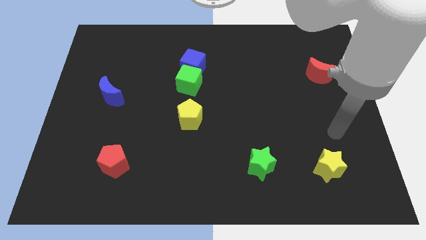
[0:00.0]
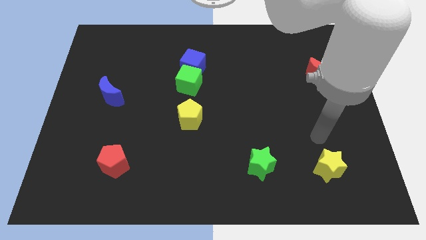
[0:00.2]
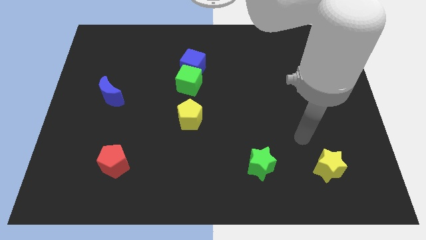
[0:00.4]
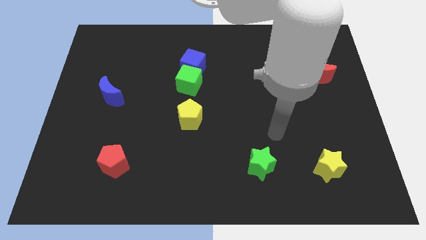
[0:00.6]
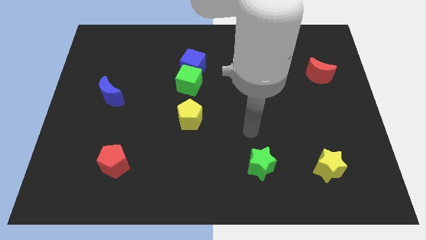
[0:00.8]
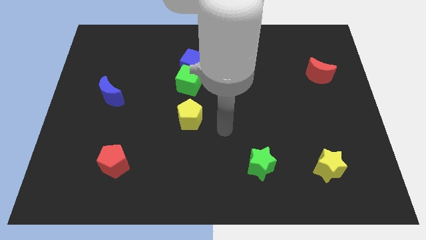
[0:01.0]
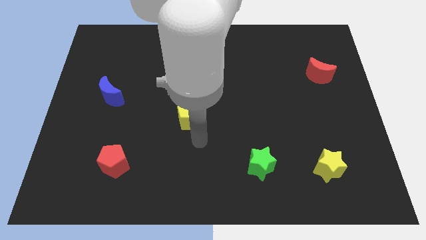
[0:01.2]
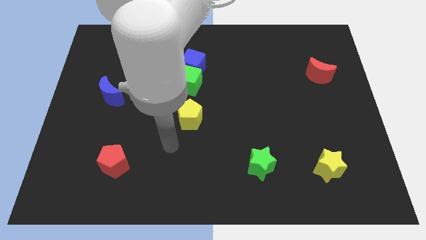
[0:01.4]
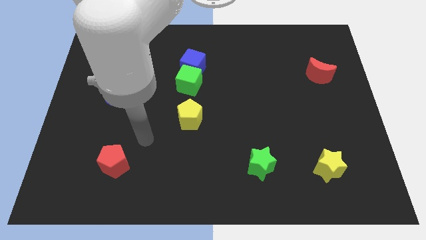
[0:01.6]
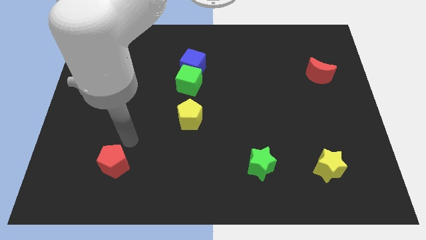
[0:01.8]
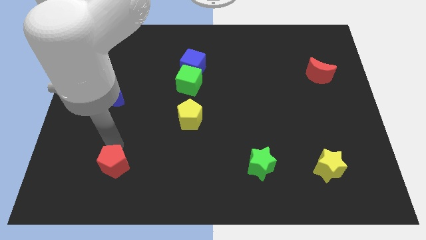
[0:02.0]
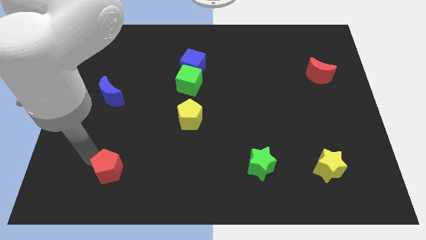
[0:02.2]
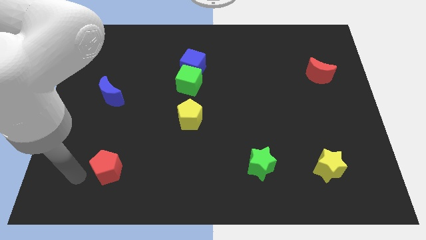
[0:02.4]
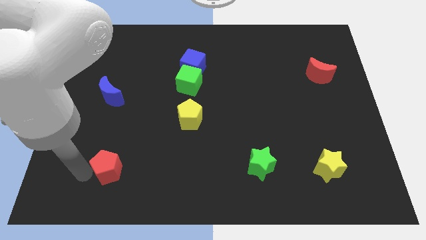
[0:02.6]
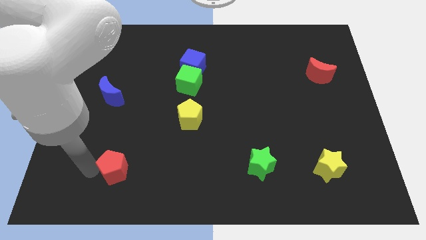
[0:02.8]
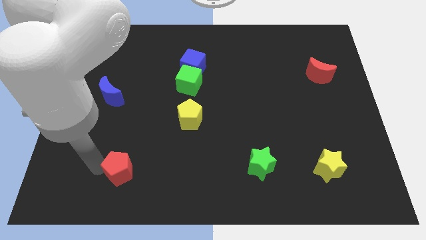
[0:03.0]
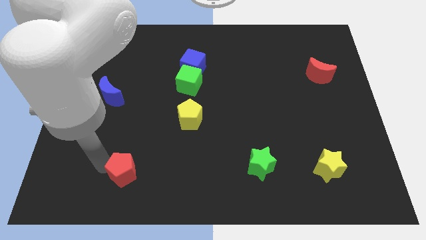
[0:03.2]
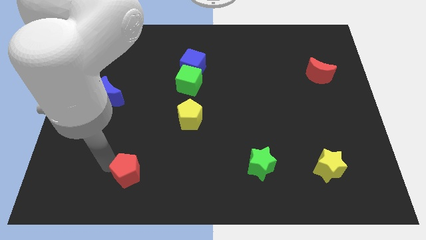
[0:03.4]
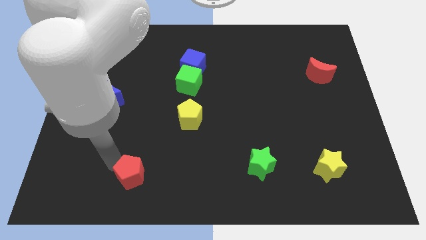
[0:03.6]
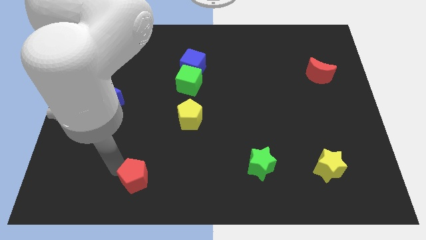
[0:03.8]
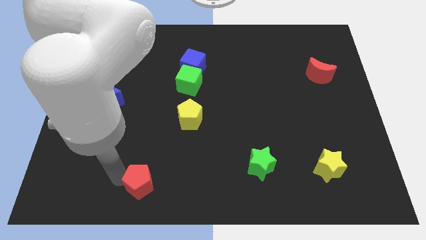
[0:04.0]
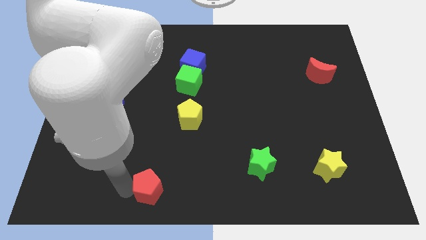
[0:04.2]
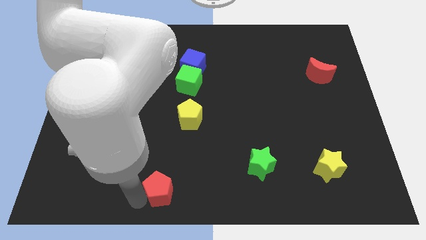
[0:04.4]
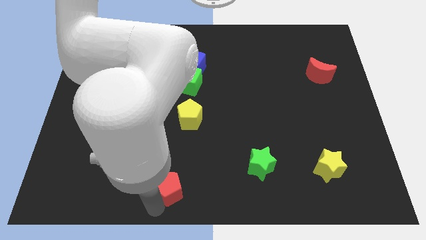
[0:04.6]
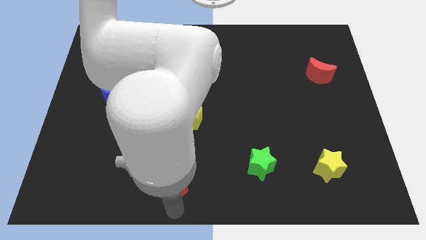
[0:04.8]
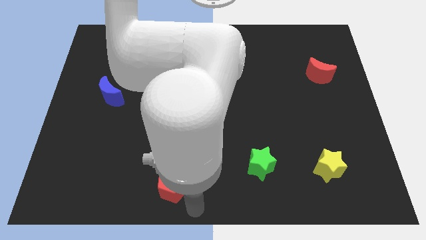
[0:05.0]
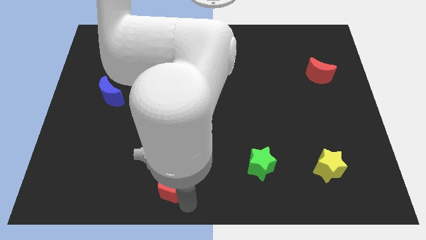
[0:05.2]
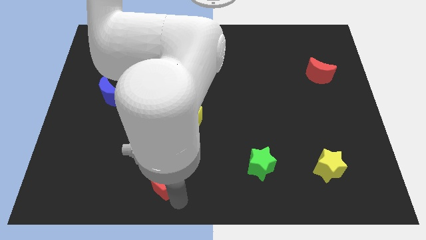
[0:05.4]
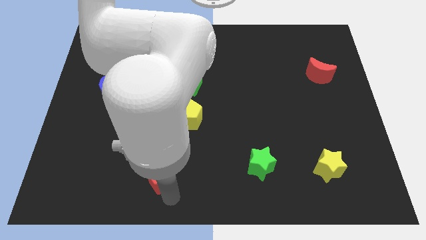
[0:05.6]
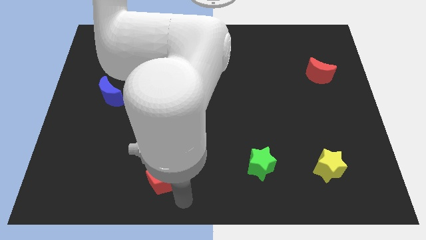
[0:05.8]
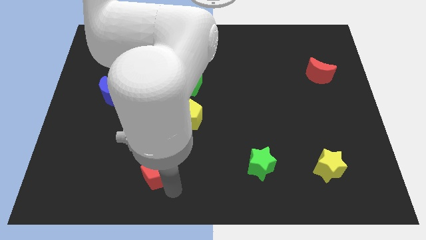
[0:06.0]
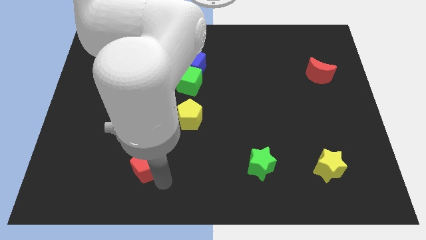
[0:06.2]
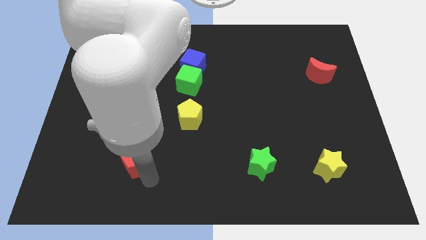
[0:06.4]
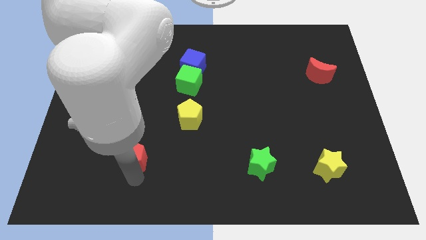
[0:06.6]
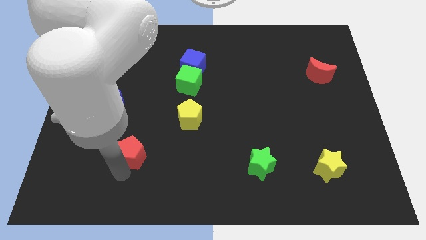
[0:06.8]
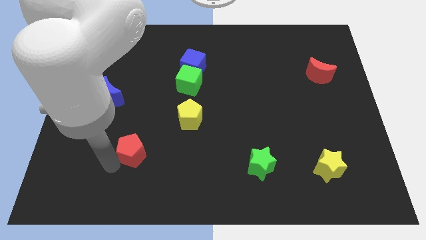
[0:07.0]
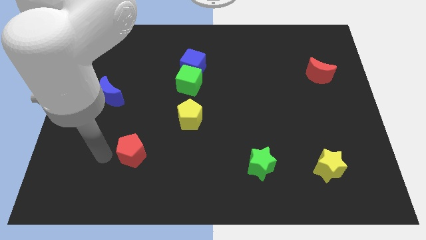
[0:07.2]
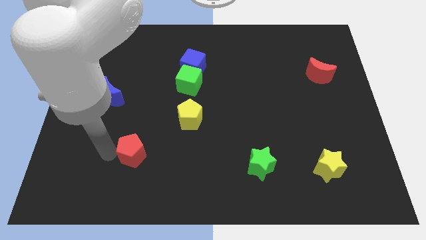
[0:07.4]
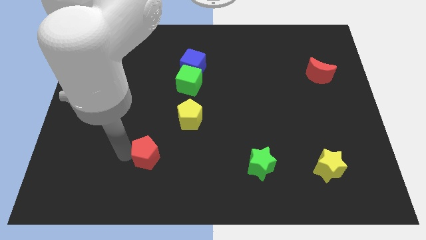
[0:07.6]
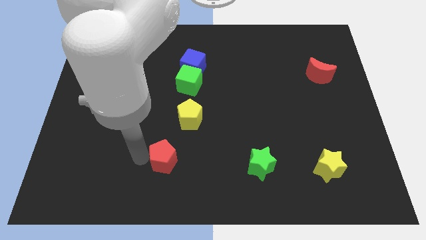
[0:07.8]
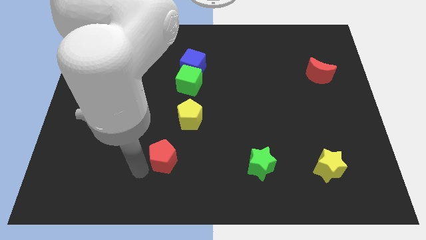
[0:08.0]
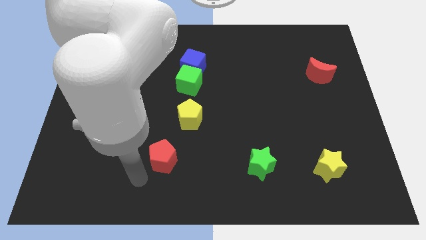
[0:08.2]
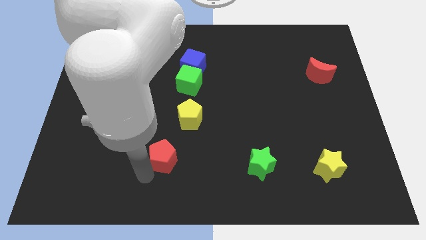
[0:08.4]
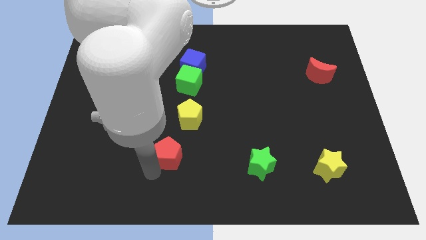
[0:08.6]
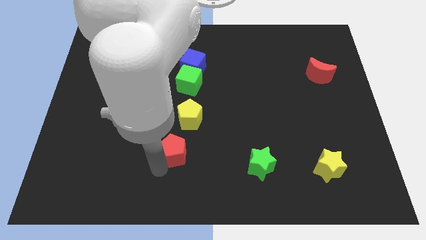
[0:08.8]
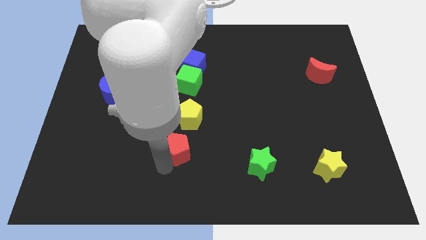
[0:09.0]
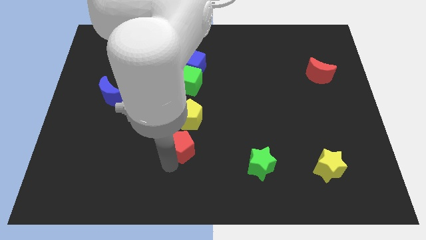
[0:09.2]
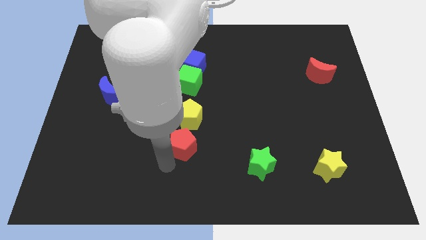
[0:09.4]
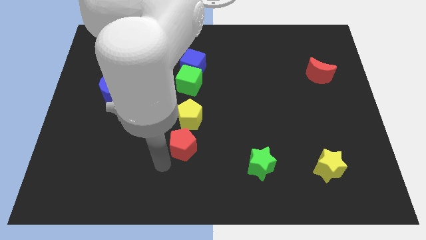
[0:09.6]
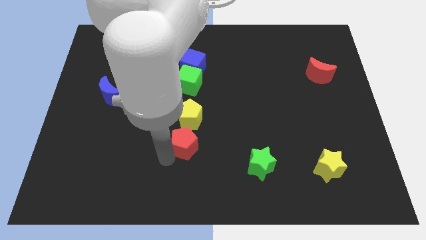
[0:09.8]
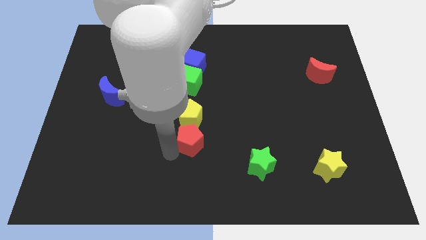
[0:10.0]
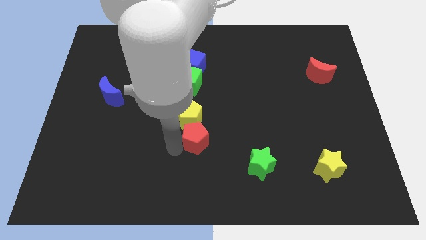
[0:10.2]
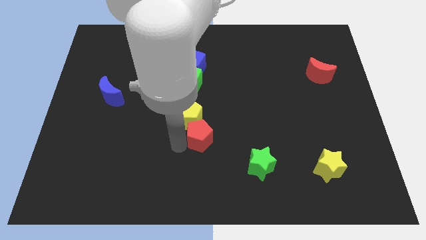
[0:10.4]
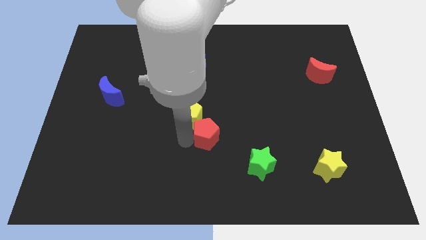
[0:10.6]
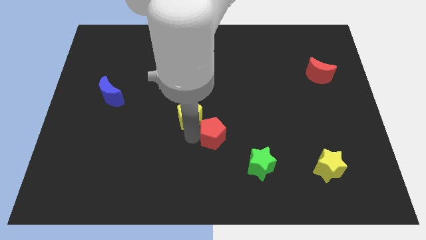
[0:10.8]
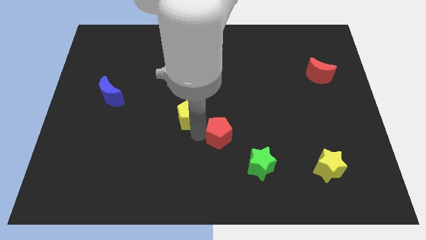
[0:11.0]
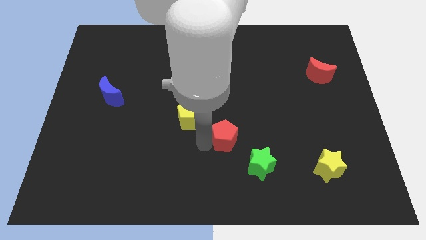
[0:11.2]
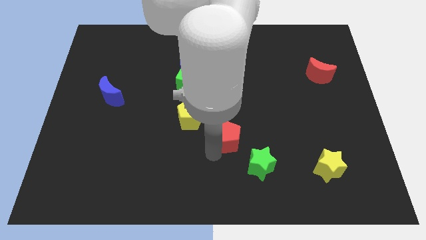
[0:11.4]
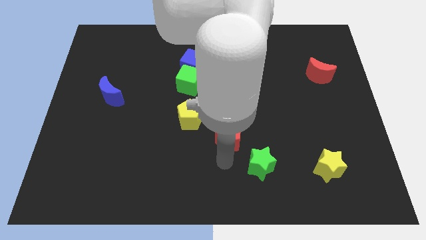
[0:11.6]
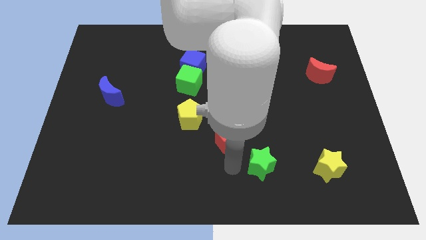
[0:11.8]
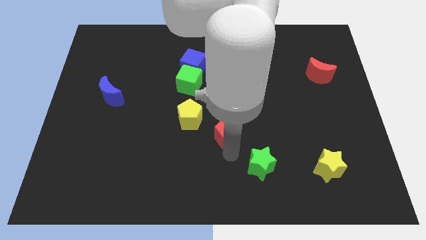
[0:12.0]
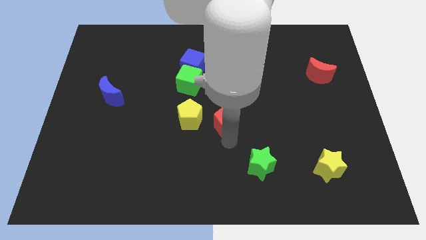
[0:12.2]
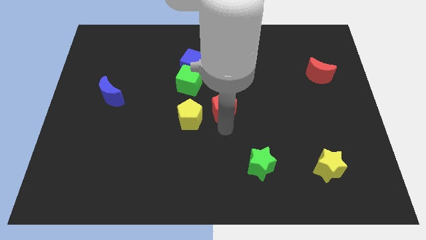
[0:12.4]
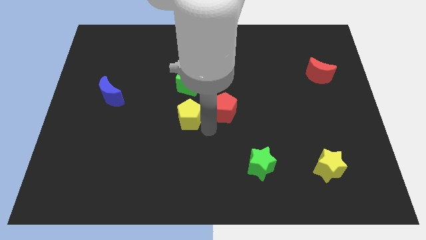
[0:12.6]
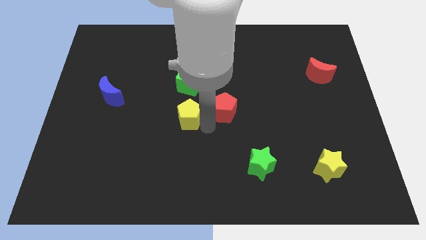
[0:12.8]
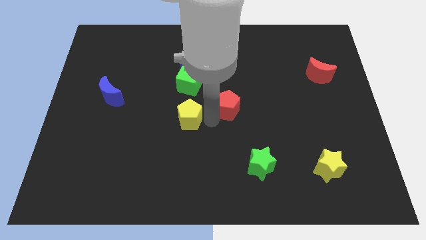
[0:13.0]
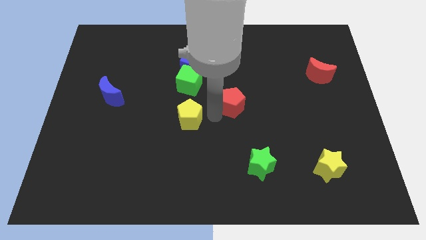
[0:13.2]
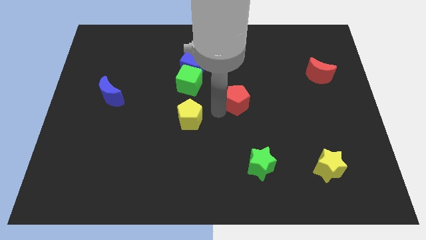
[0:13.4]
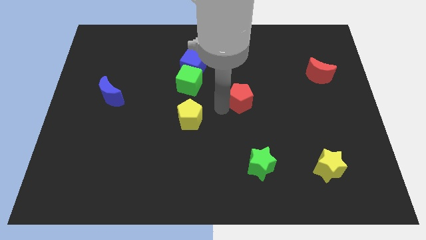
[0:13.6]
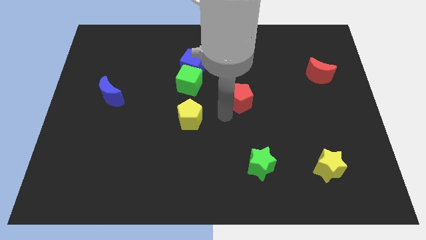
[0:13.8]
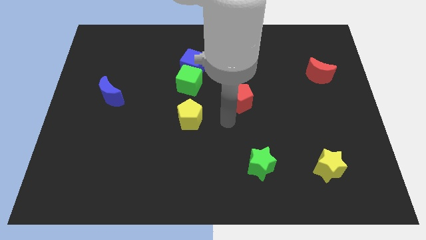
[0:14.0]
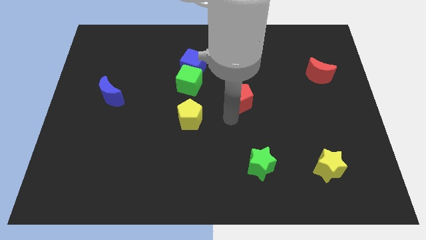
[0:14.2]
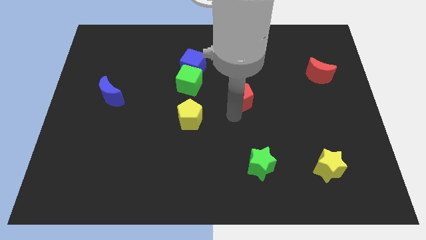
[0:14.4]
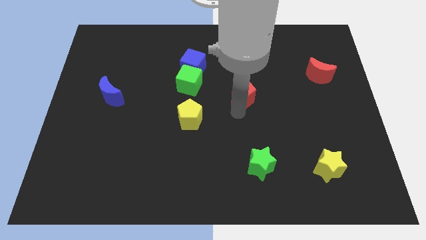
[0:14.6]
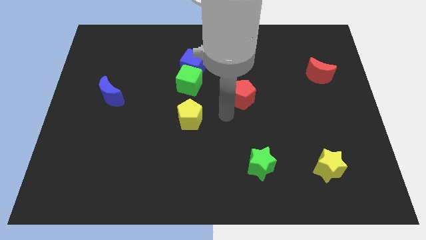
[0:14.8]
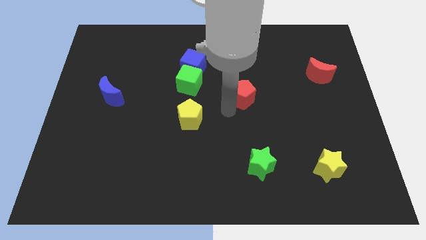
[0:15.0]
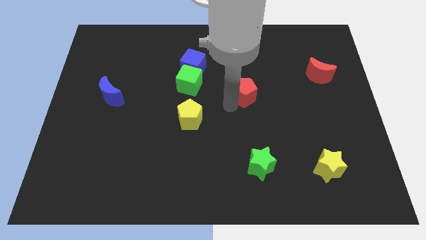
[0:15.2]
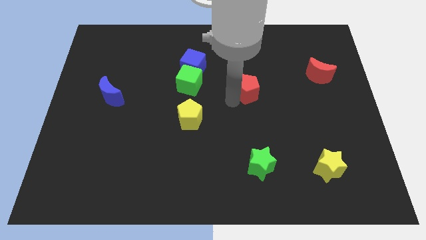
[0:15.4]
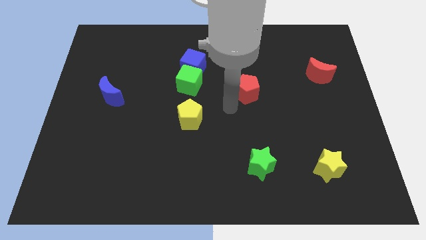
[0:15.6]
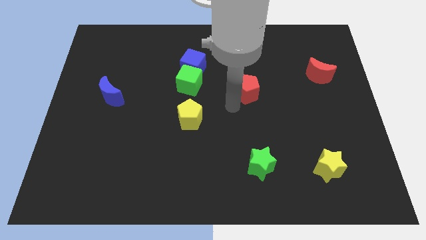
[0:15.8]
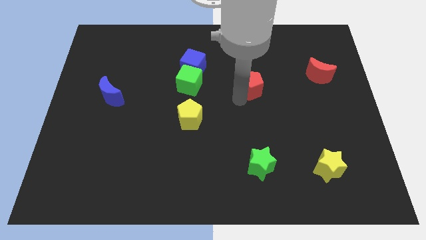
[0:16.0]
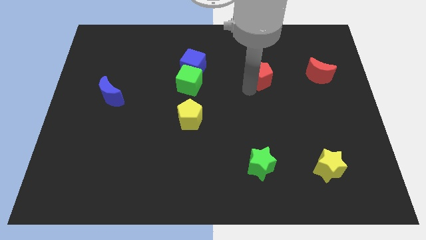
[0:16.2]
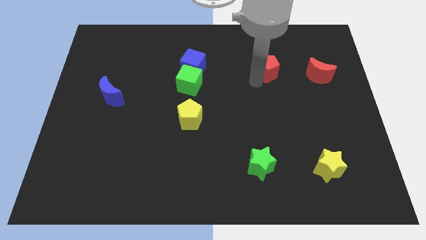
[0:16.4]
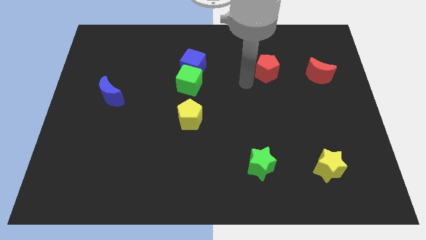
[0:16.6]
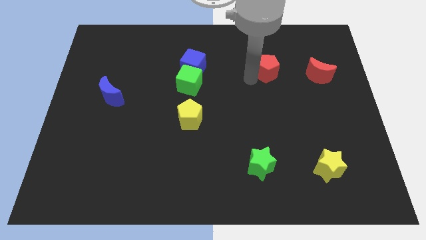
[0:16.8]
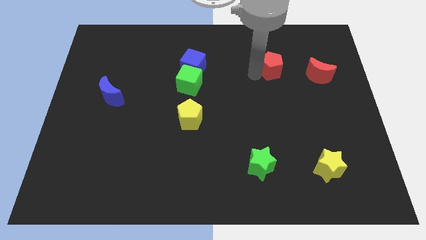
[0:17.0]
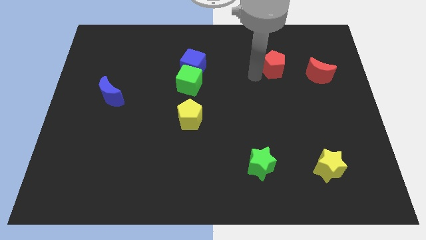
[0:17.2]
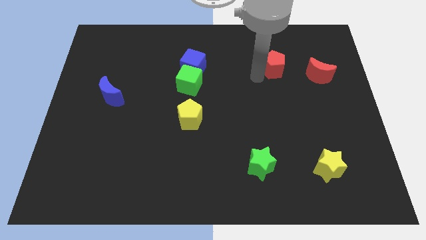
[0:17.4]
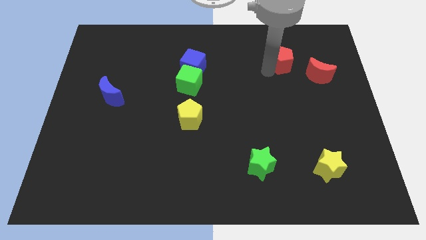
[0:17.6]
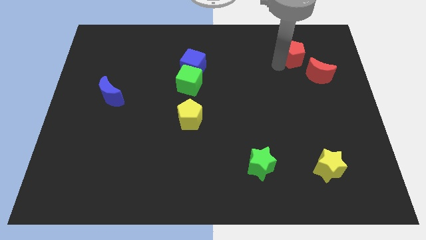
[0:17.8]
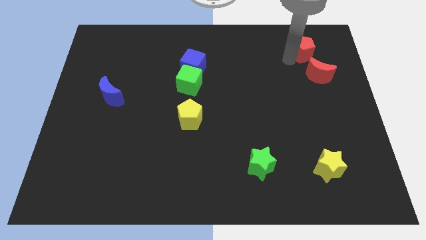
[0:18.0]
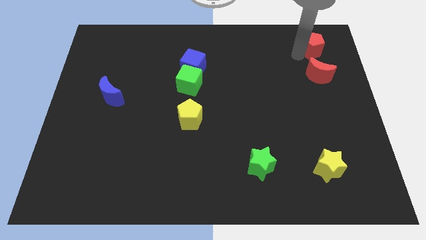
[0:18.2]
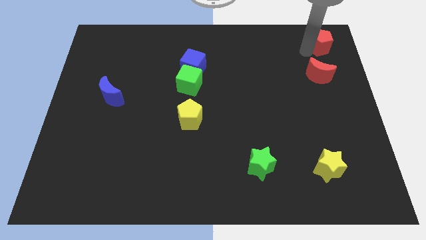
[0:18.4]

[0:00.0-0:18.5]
slide the red pentagon to the top right of the board
